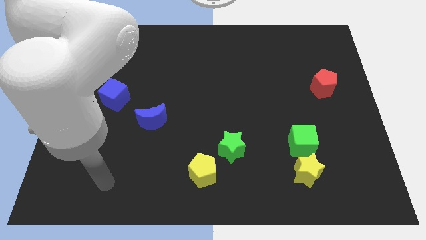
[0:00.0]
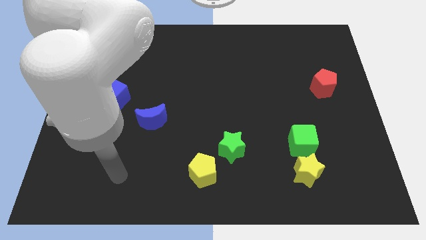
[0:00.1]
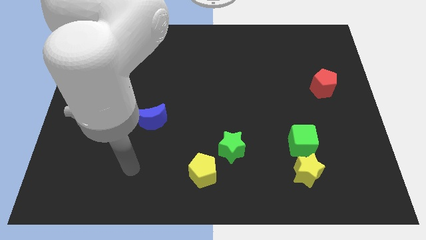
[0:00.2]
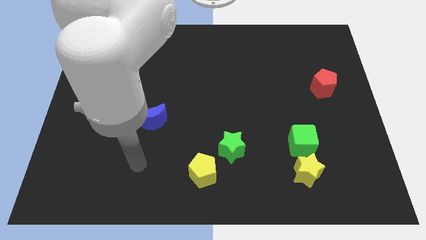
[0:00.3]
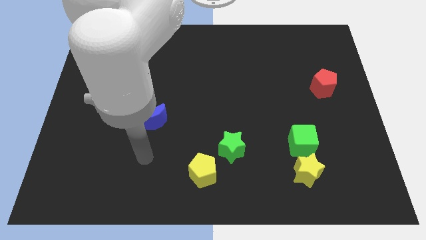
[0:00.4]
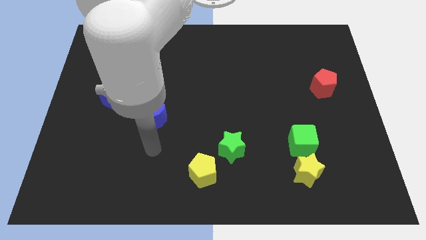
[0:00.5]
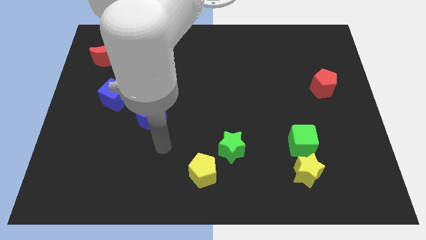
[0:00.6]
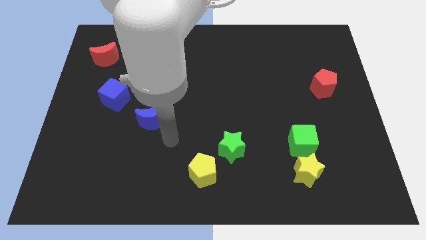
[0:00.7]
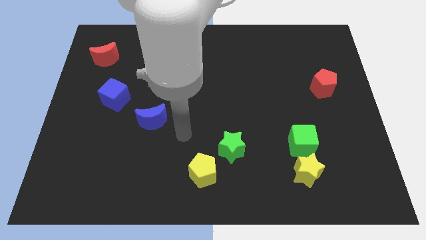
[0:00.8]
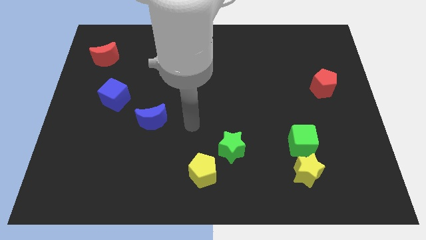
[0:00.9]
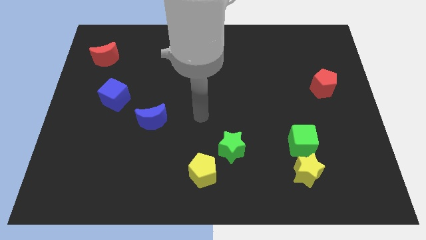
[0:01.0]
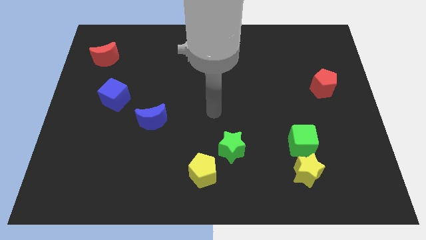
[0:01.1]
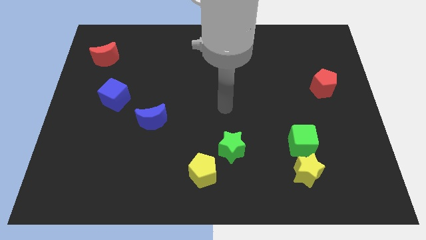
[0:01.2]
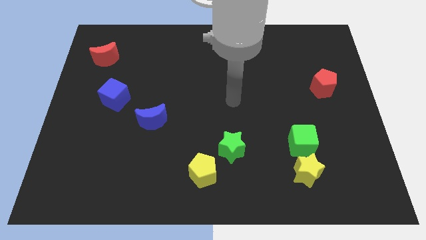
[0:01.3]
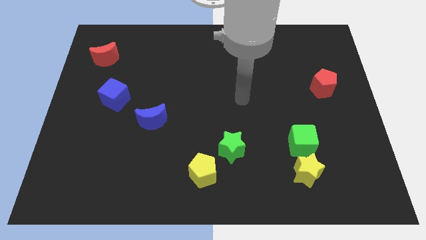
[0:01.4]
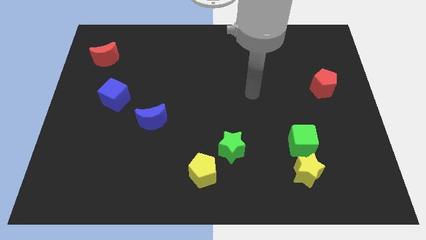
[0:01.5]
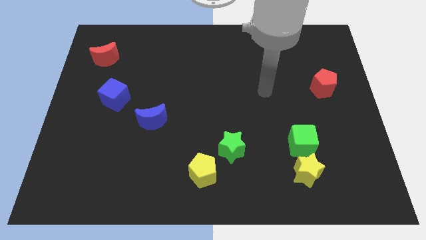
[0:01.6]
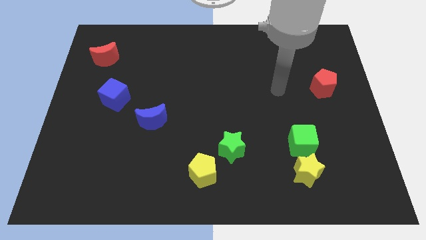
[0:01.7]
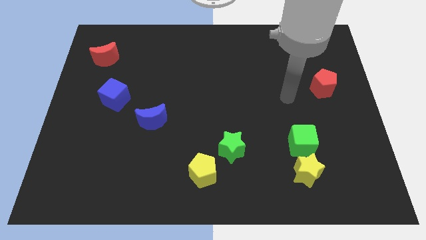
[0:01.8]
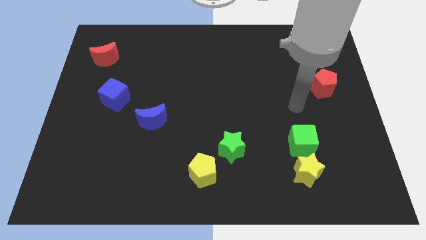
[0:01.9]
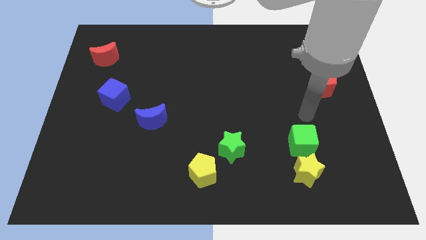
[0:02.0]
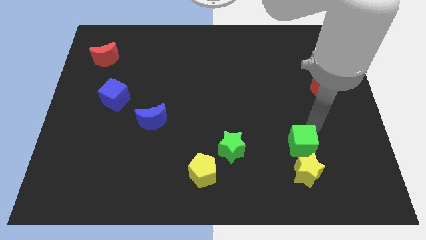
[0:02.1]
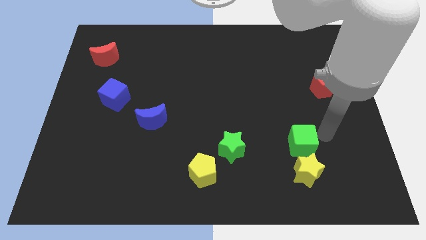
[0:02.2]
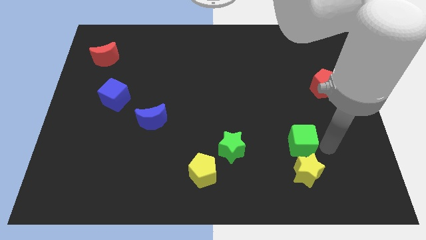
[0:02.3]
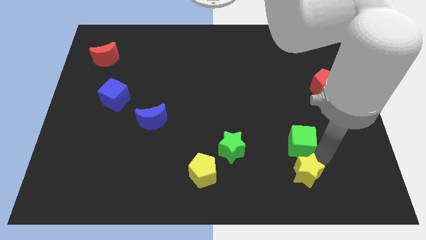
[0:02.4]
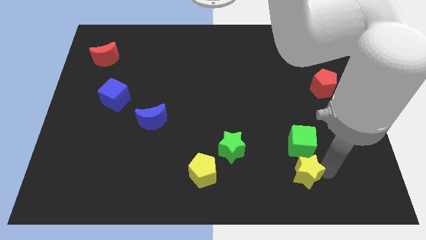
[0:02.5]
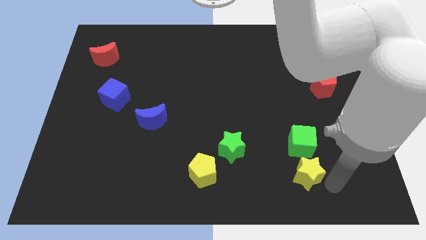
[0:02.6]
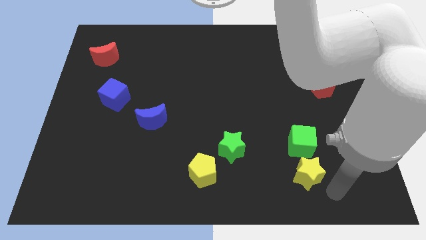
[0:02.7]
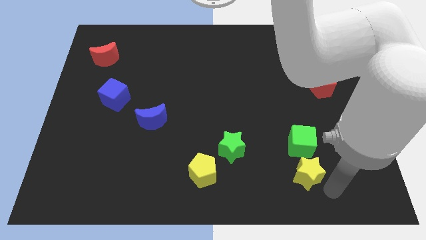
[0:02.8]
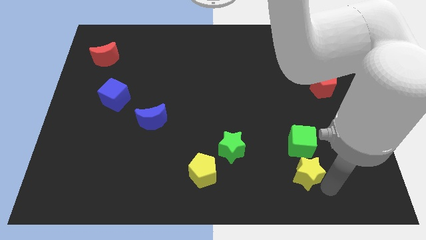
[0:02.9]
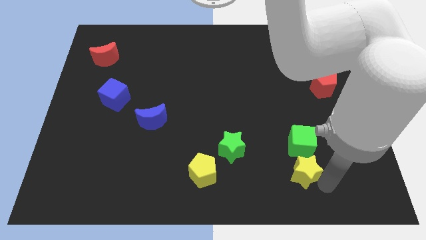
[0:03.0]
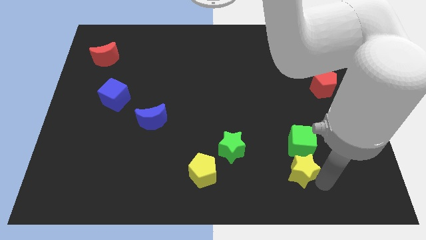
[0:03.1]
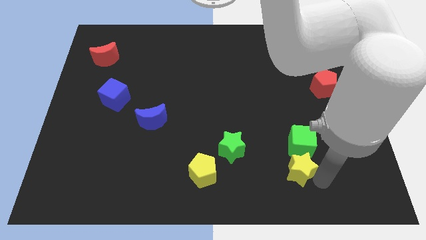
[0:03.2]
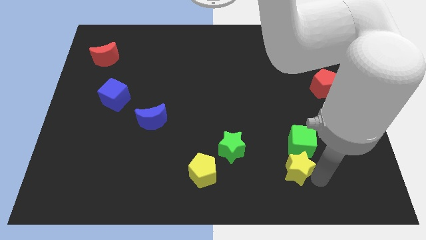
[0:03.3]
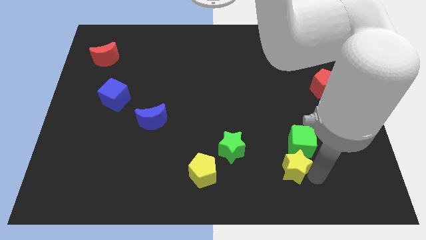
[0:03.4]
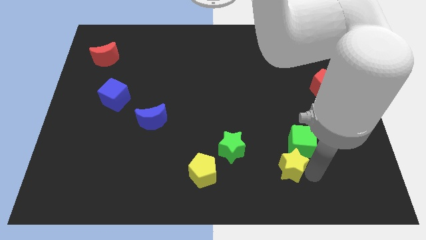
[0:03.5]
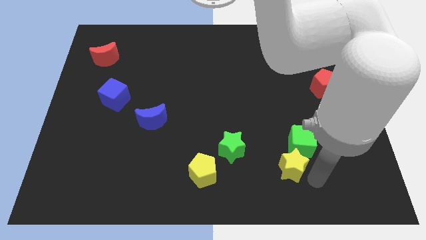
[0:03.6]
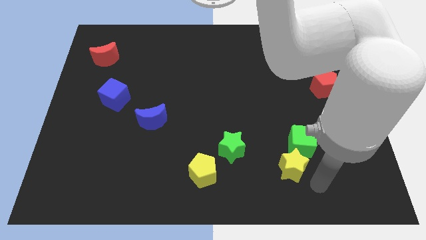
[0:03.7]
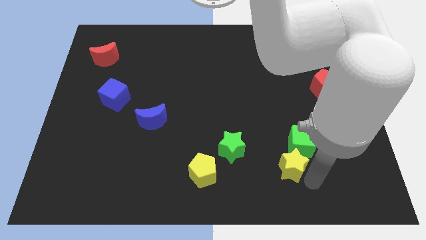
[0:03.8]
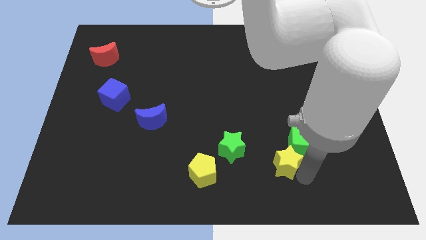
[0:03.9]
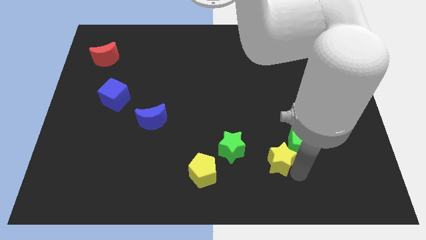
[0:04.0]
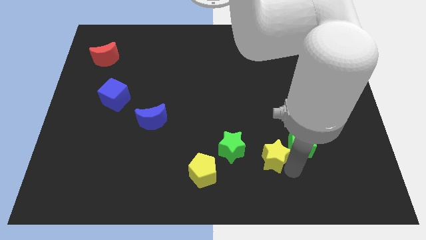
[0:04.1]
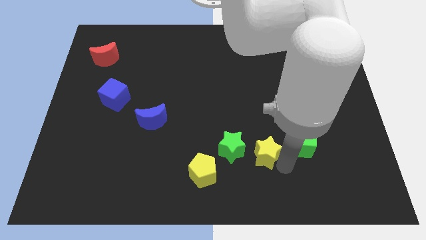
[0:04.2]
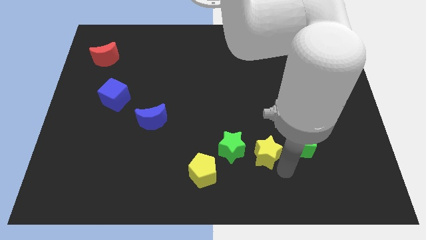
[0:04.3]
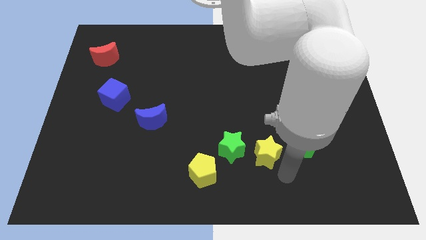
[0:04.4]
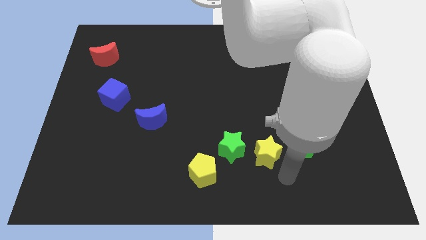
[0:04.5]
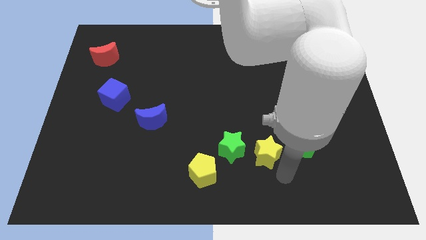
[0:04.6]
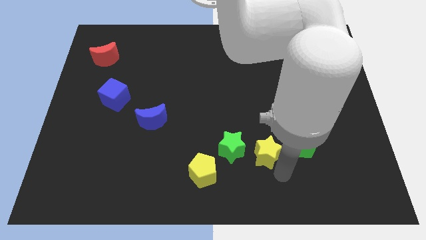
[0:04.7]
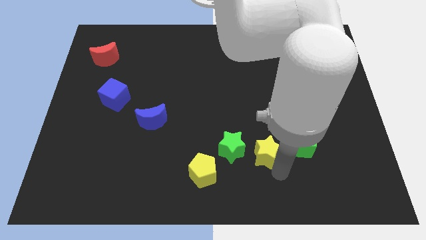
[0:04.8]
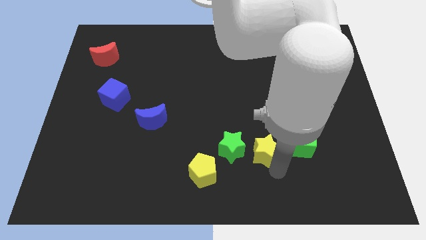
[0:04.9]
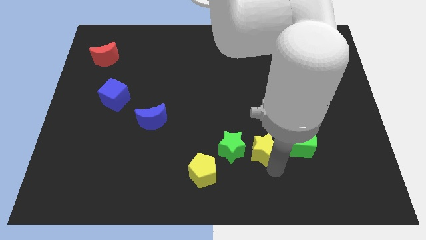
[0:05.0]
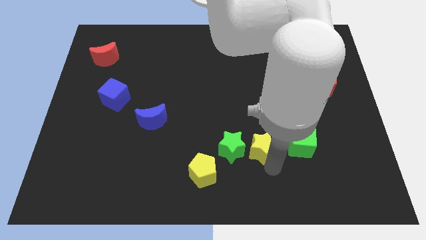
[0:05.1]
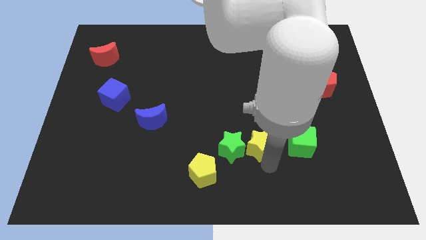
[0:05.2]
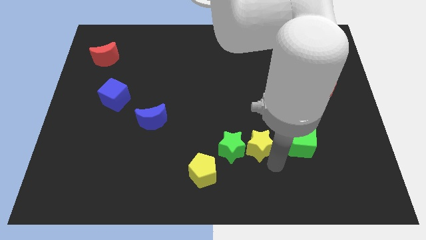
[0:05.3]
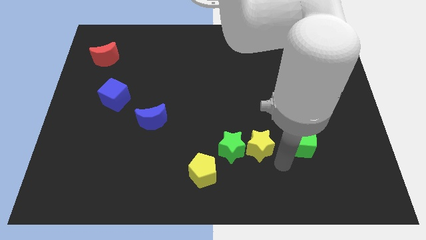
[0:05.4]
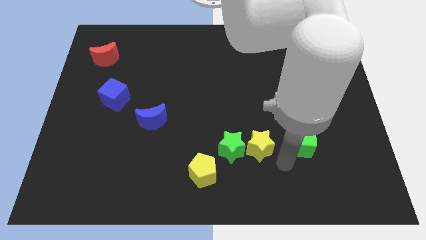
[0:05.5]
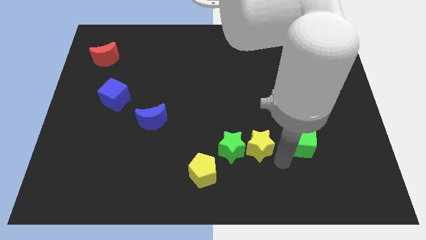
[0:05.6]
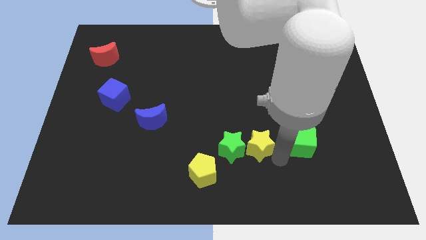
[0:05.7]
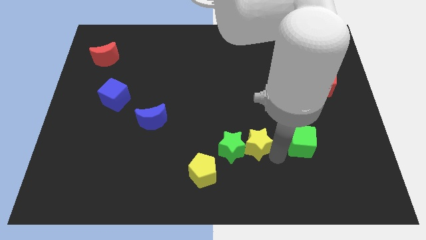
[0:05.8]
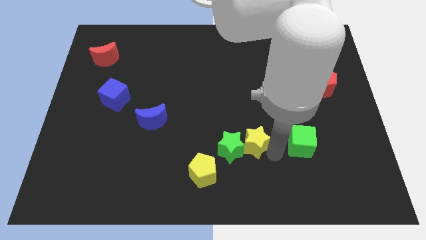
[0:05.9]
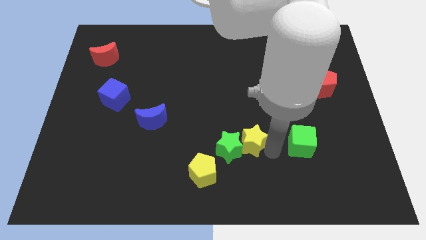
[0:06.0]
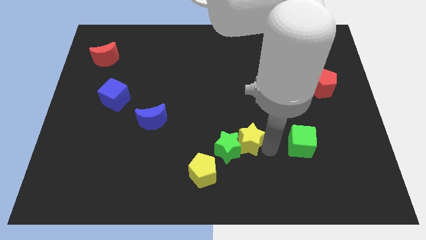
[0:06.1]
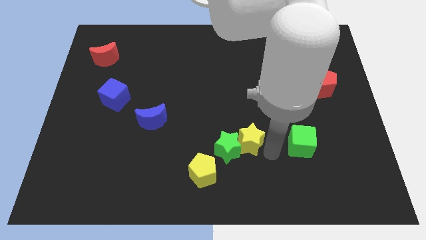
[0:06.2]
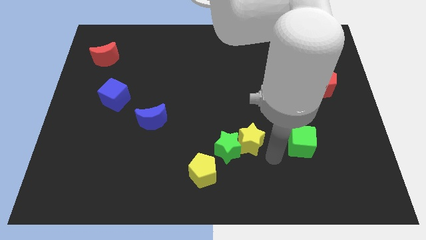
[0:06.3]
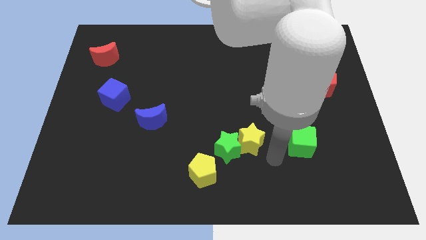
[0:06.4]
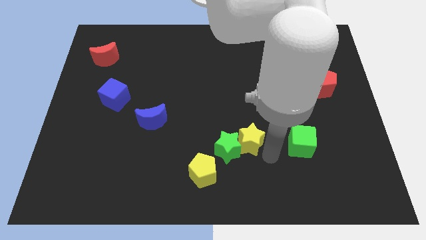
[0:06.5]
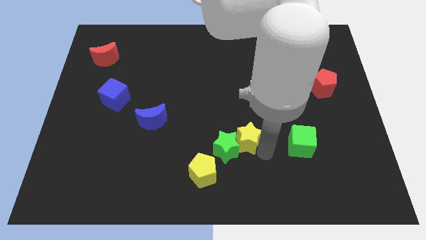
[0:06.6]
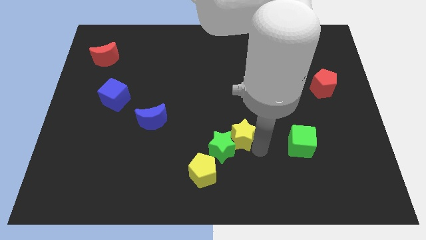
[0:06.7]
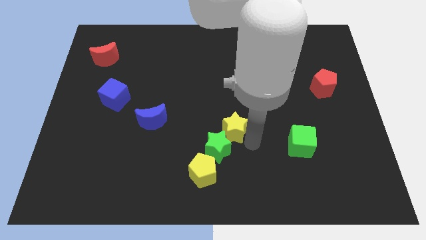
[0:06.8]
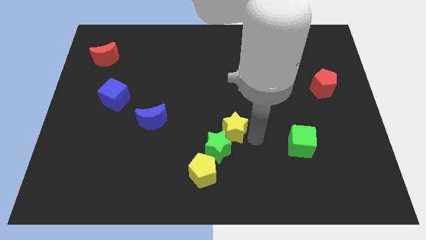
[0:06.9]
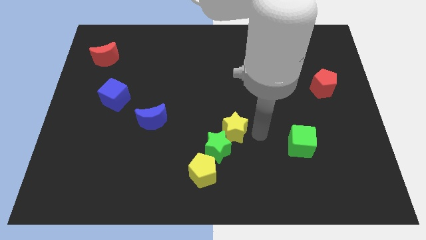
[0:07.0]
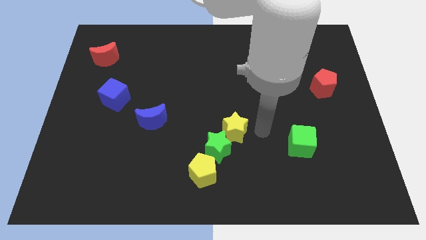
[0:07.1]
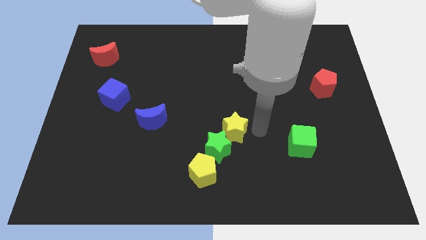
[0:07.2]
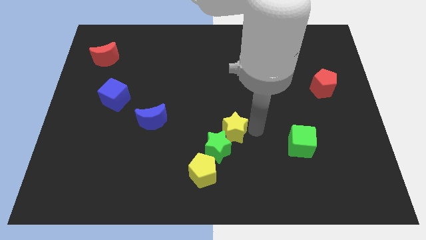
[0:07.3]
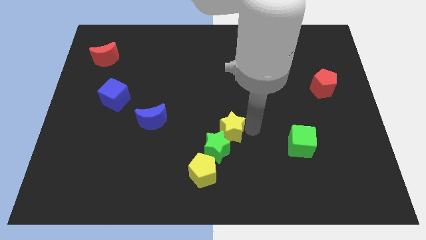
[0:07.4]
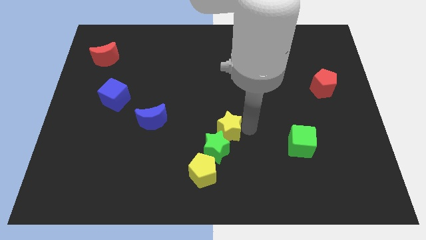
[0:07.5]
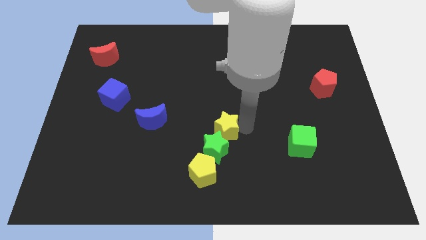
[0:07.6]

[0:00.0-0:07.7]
push the yellow star to the top side of the yellow pentagon
